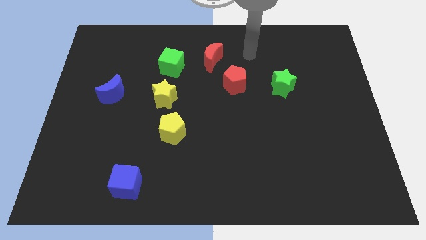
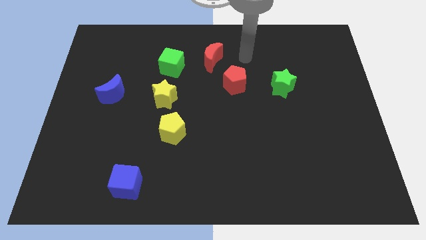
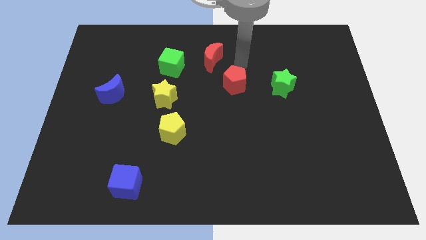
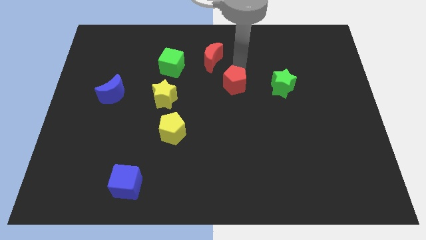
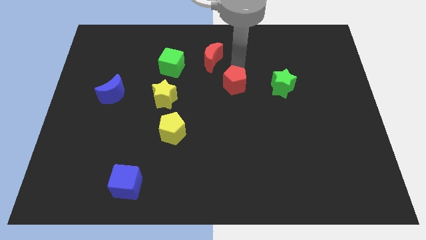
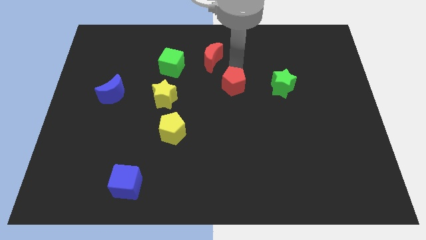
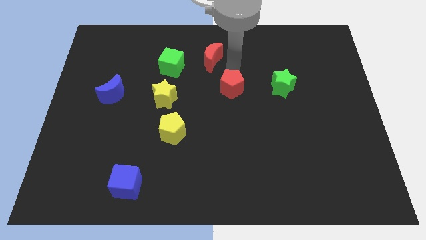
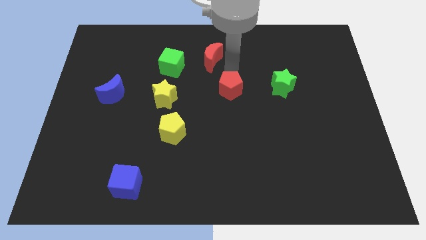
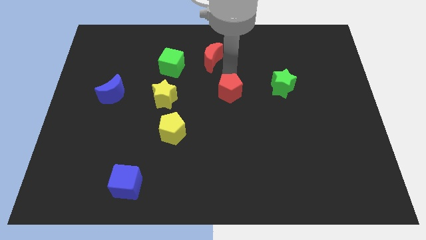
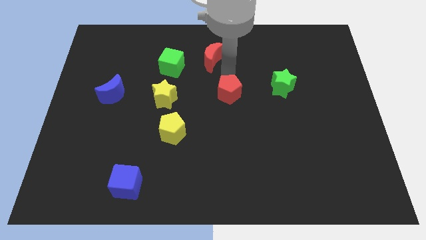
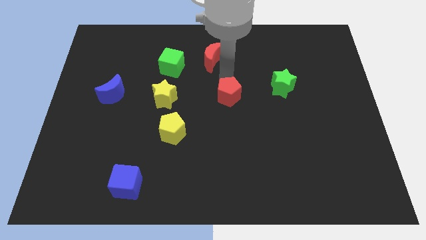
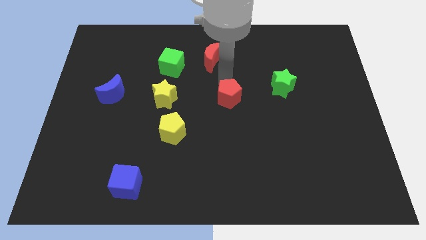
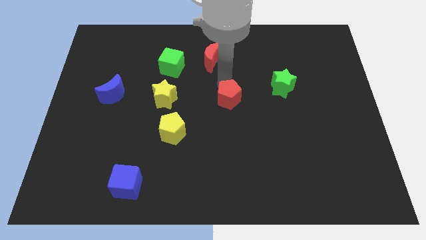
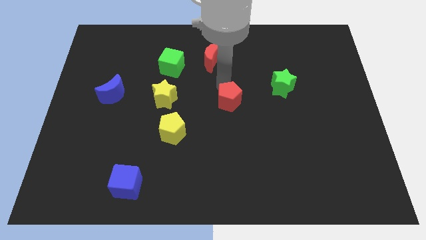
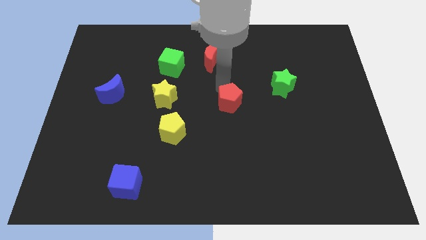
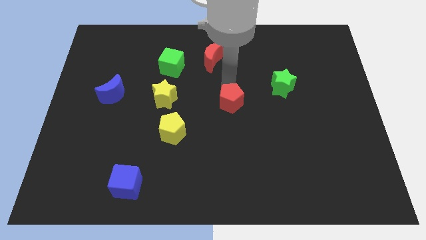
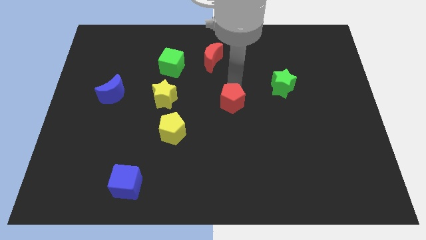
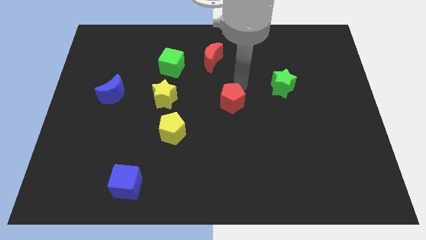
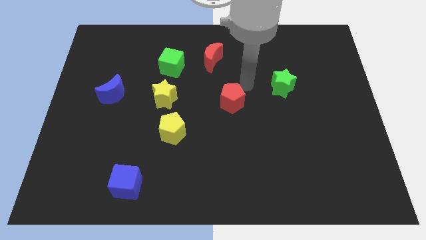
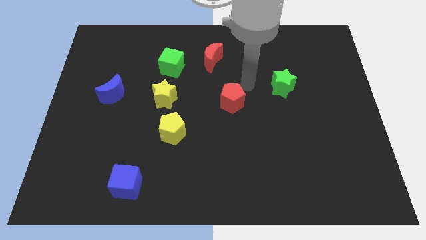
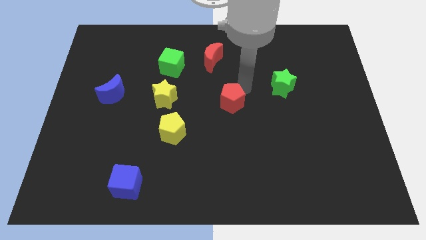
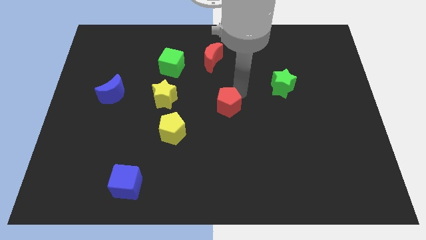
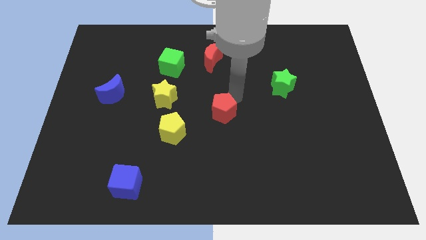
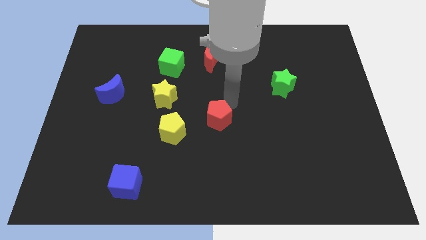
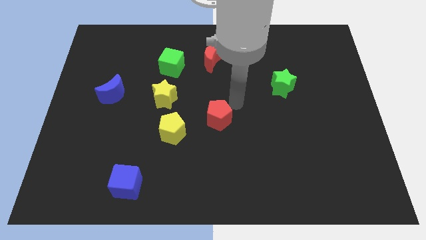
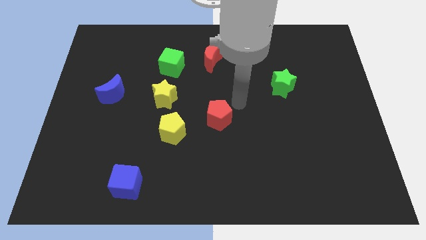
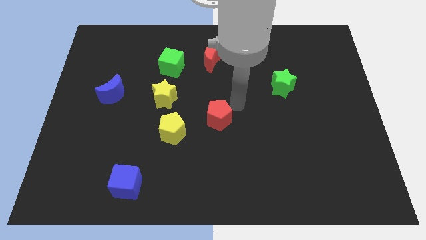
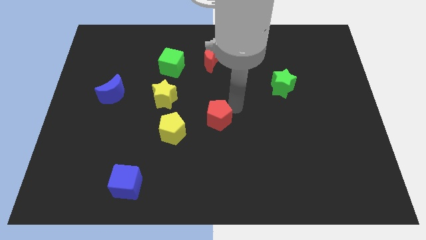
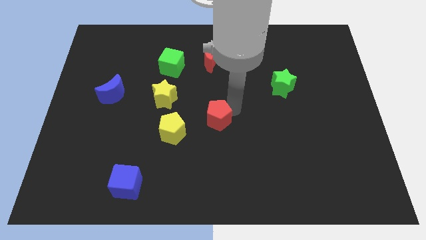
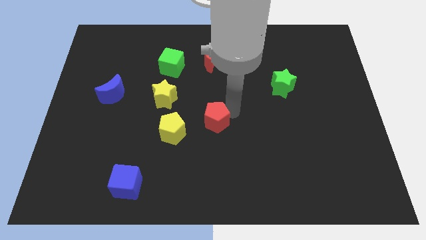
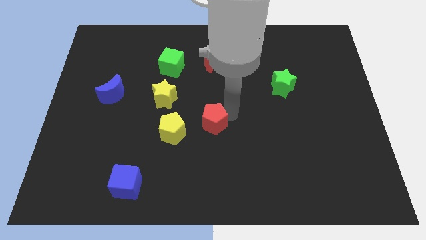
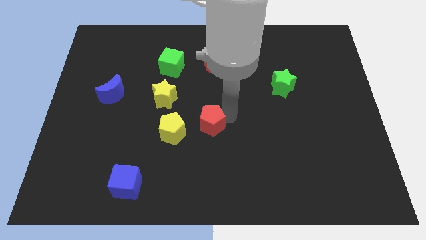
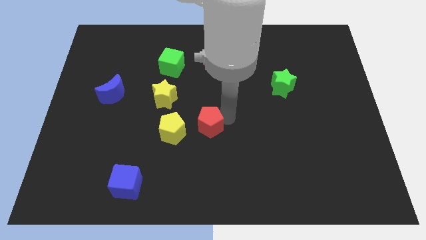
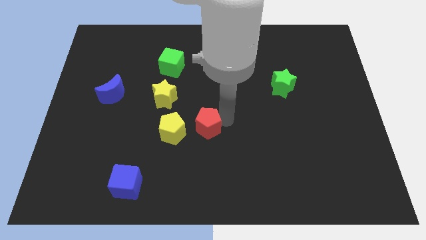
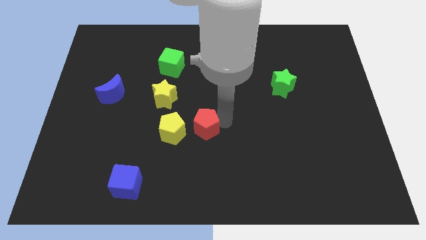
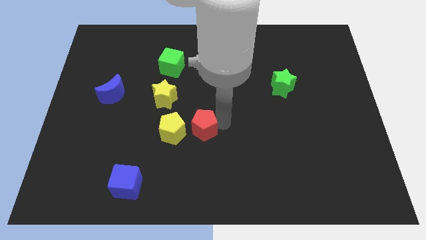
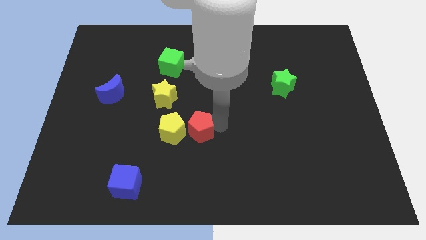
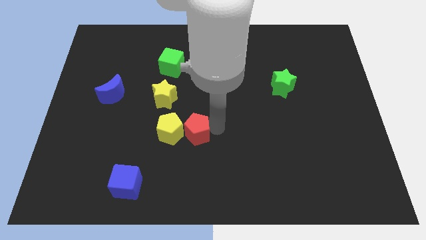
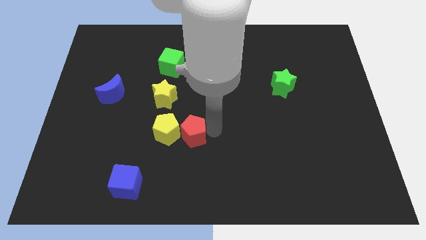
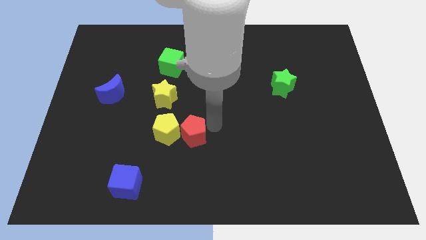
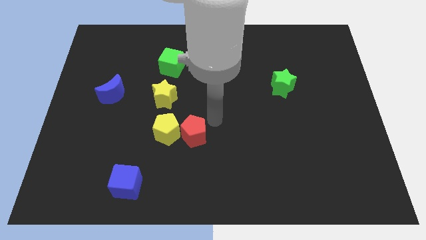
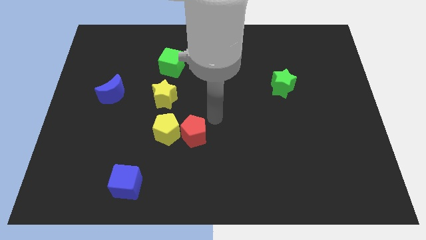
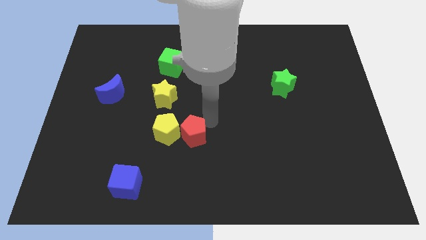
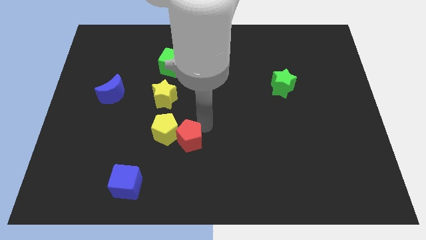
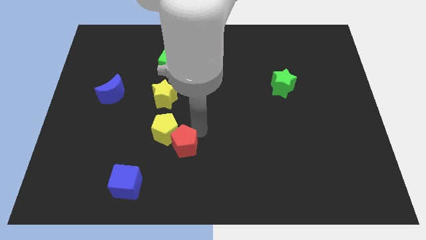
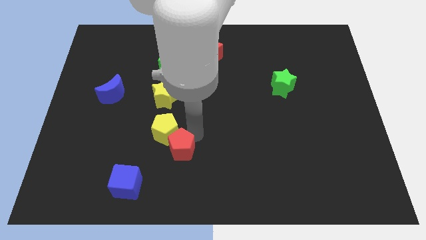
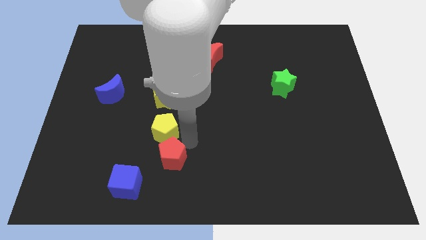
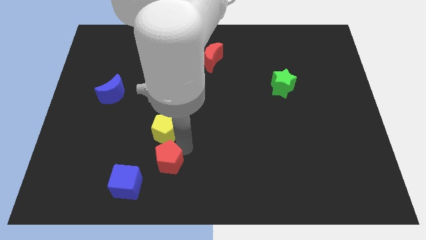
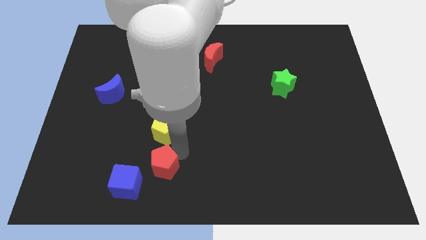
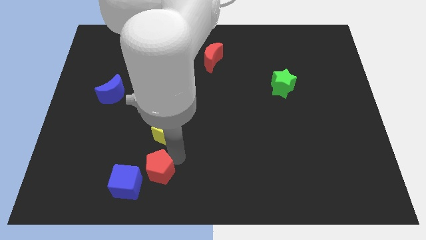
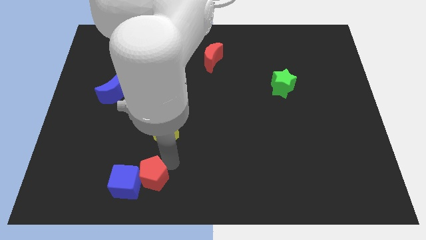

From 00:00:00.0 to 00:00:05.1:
push the red pentagon towards the blue cube

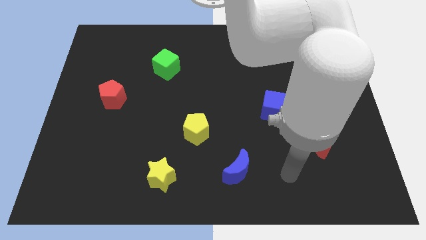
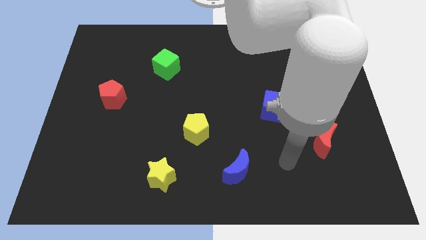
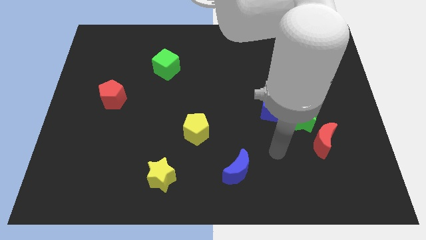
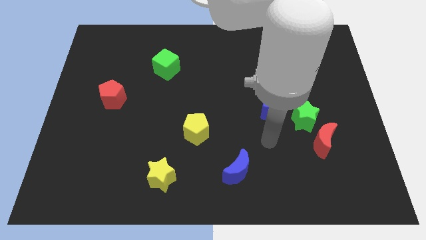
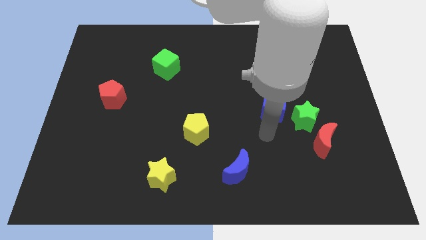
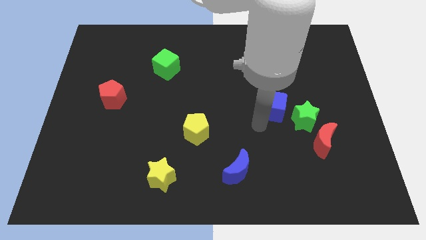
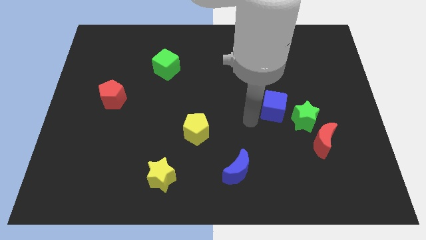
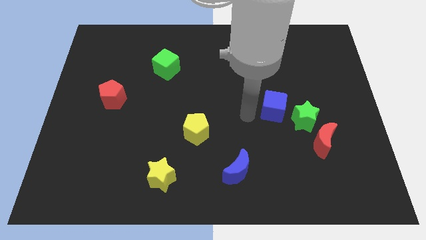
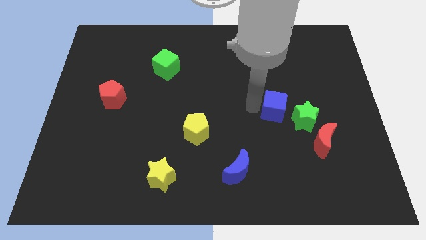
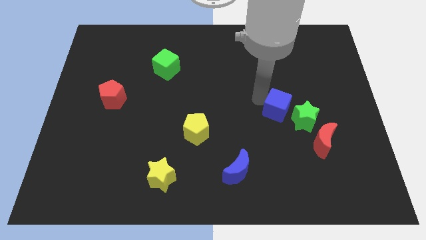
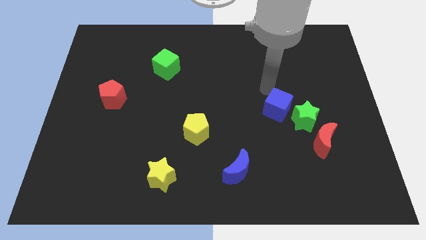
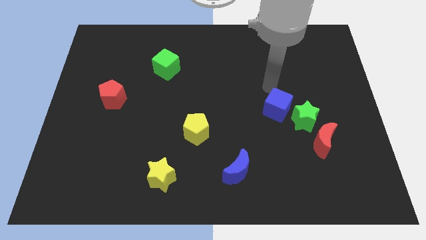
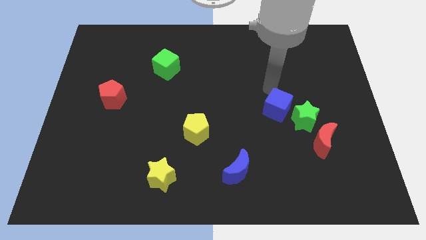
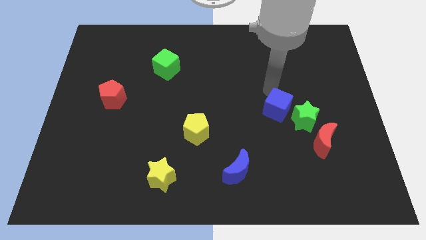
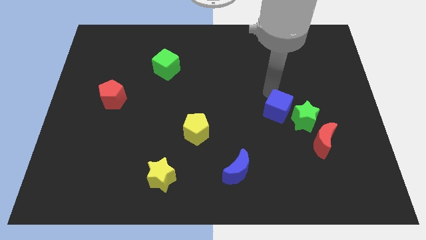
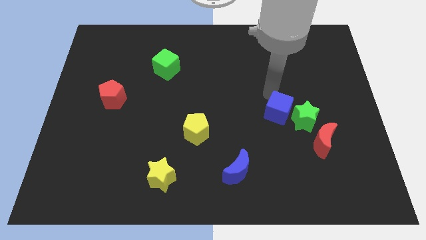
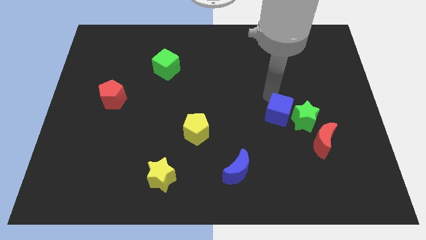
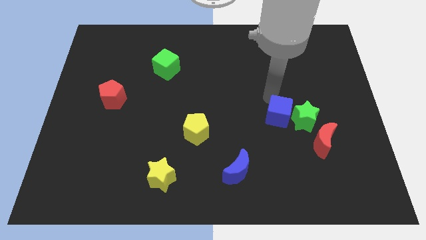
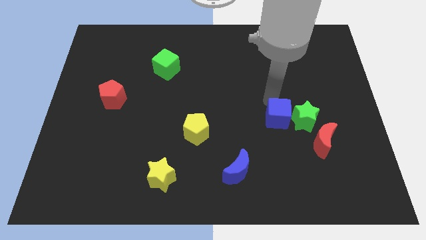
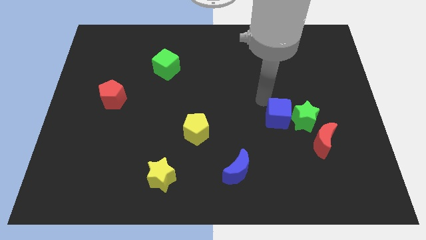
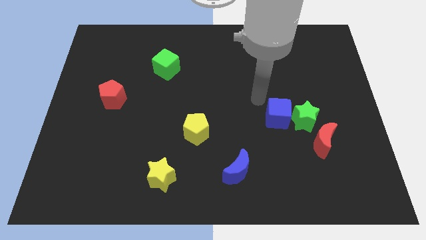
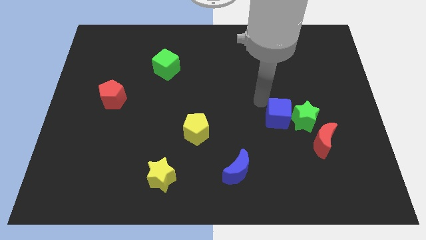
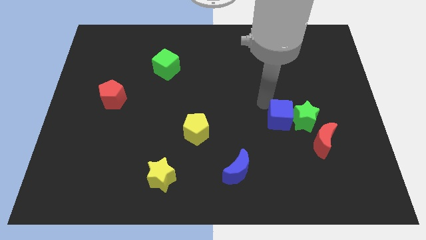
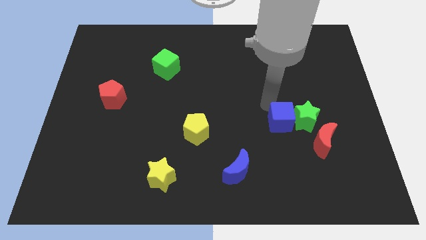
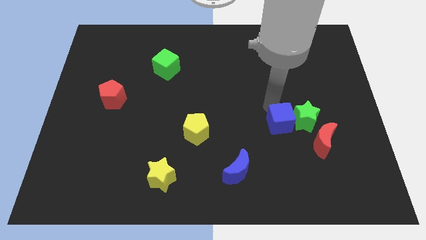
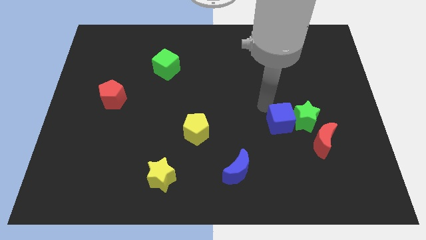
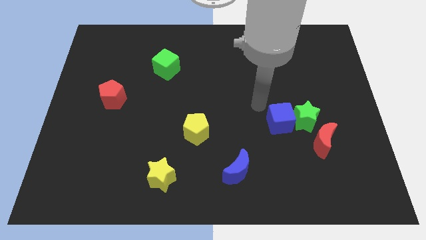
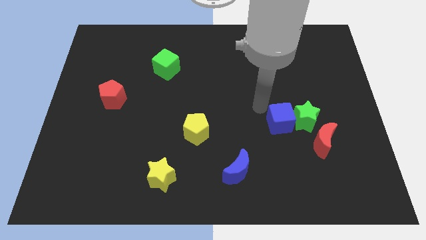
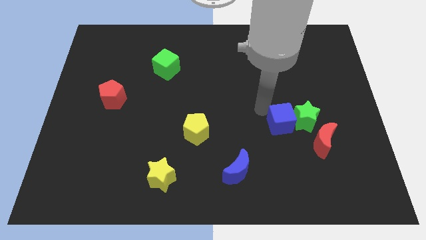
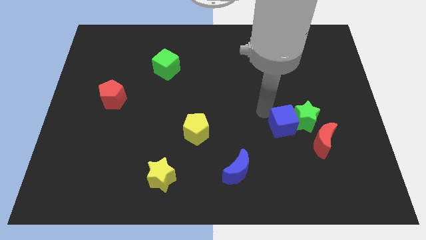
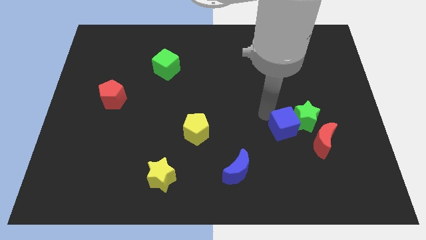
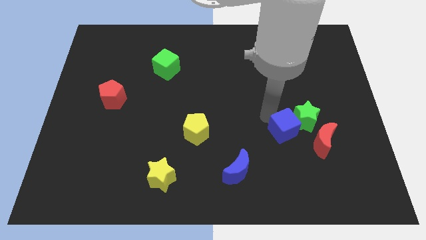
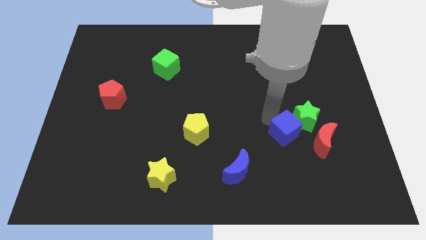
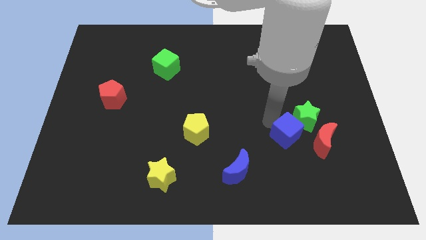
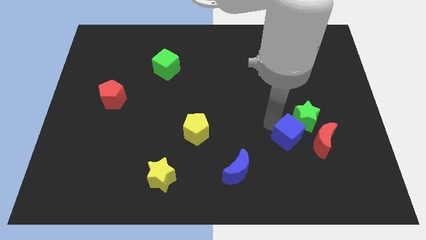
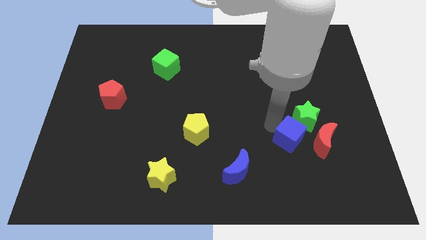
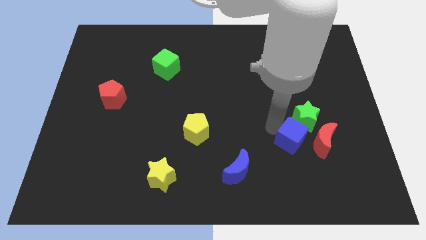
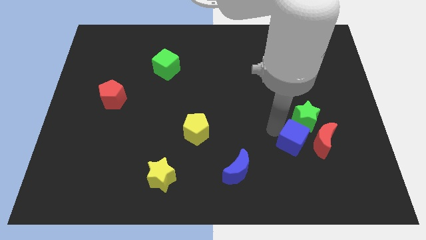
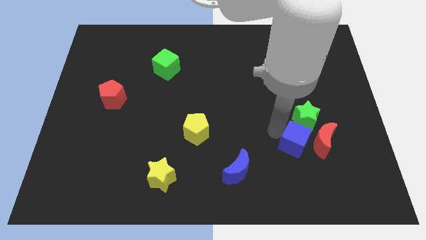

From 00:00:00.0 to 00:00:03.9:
put the blue cube to the red moon
